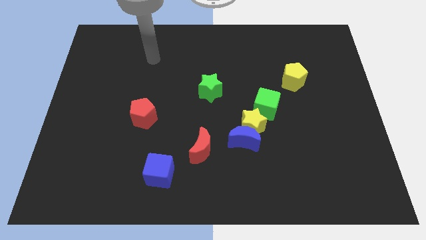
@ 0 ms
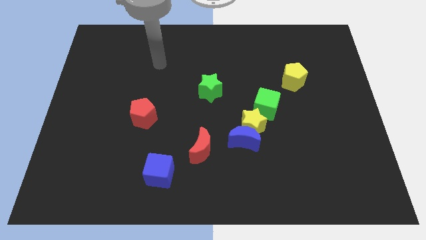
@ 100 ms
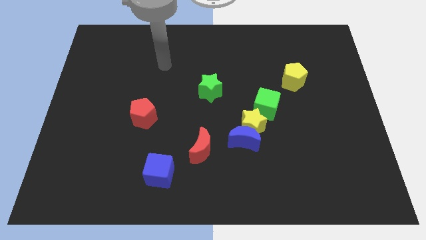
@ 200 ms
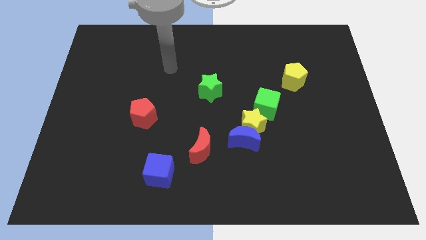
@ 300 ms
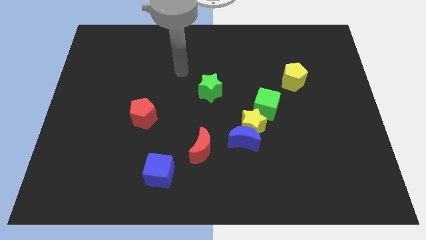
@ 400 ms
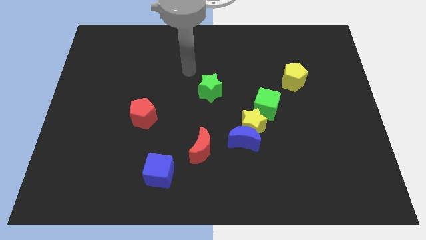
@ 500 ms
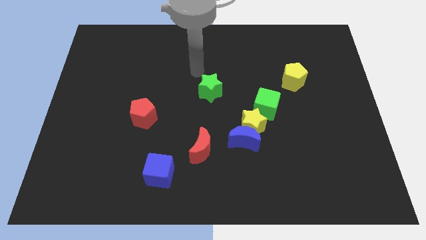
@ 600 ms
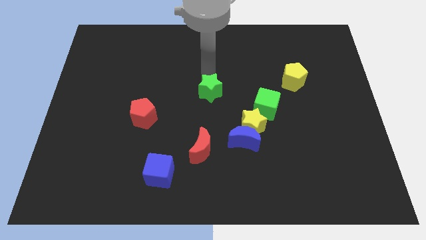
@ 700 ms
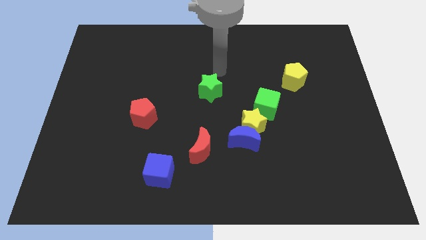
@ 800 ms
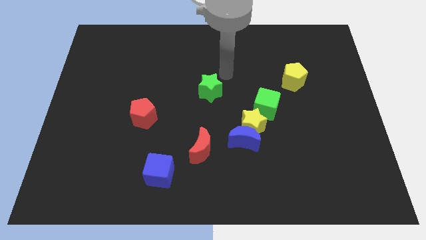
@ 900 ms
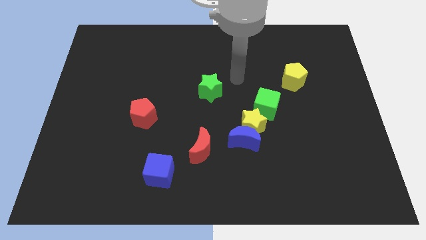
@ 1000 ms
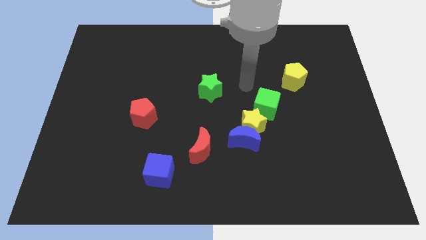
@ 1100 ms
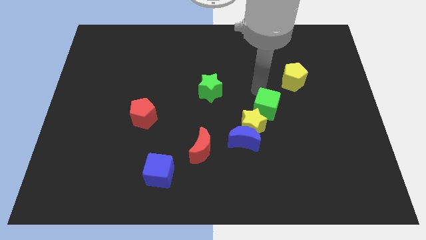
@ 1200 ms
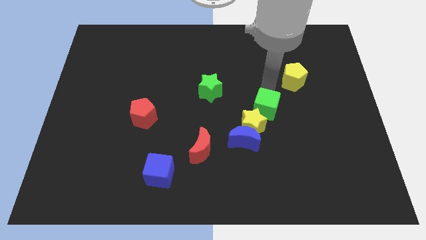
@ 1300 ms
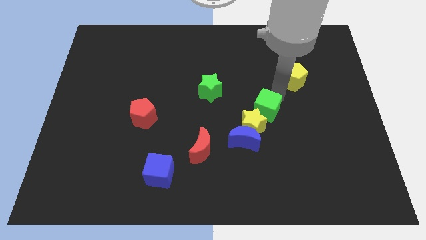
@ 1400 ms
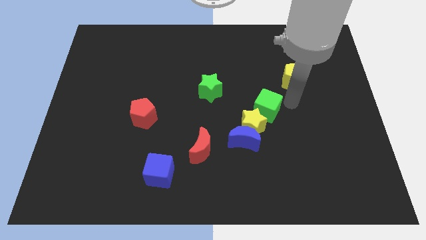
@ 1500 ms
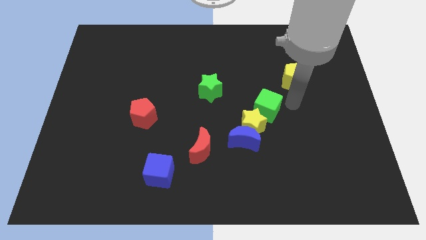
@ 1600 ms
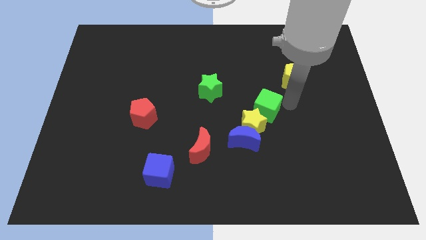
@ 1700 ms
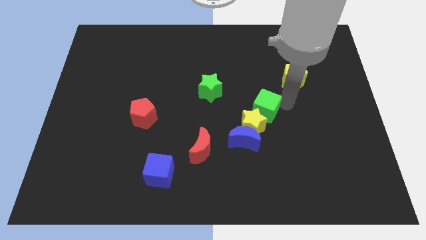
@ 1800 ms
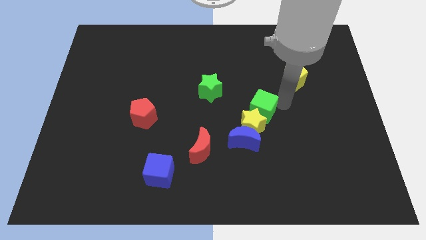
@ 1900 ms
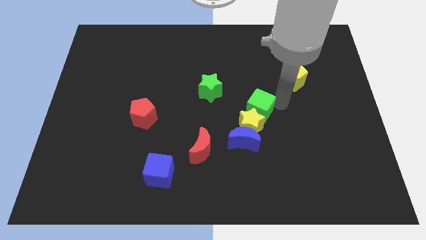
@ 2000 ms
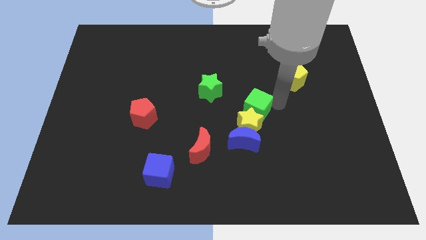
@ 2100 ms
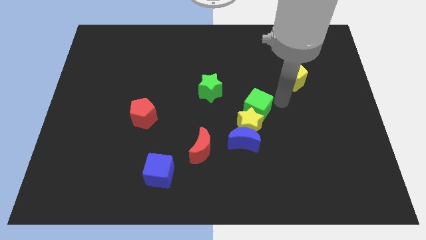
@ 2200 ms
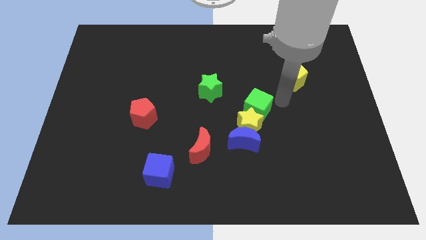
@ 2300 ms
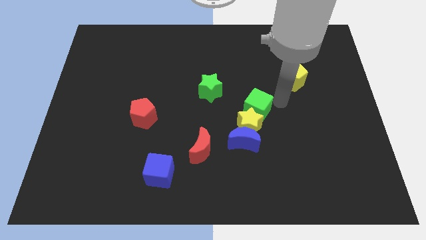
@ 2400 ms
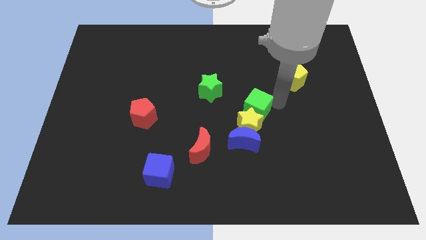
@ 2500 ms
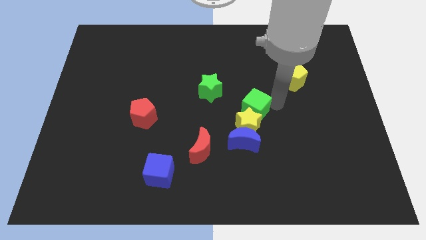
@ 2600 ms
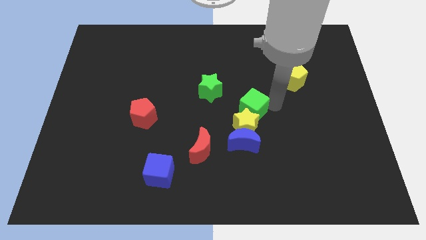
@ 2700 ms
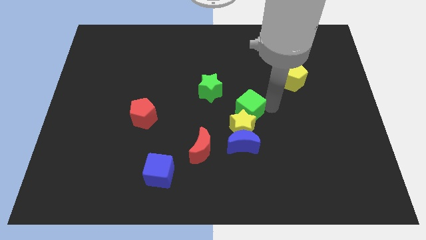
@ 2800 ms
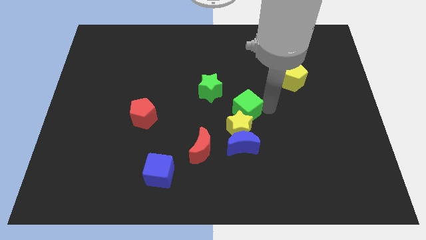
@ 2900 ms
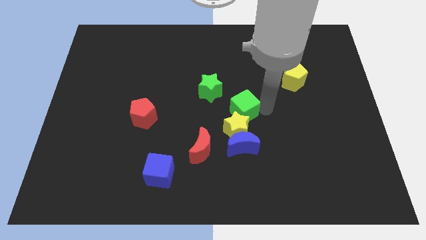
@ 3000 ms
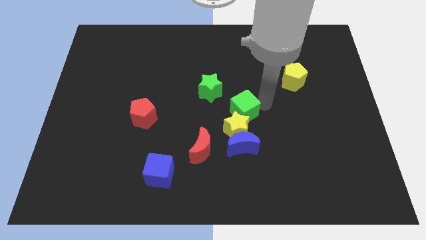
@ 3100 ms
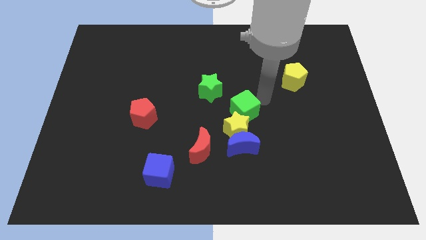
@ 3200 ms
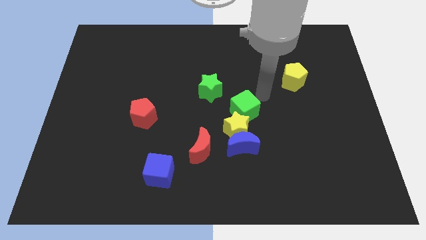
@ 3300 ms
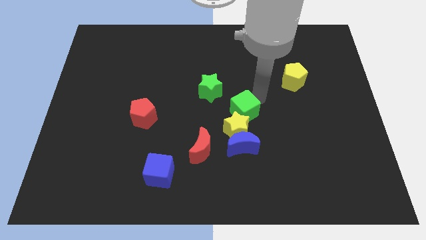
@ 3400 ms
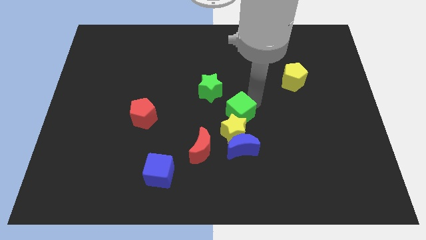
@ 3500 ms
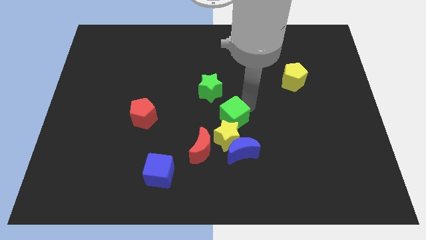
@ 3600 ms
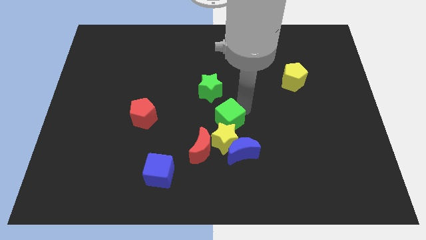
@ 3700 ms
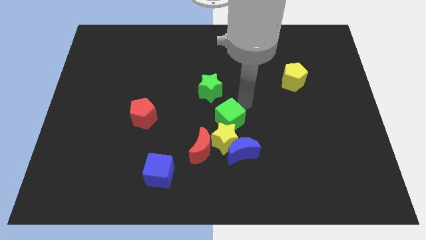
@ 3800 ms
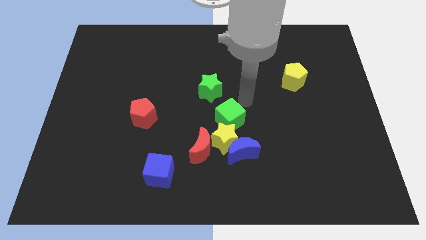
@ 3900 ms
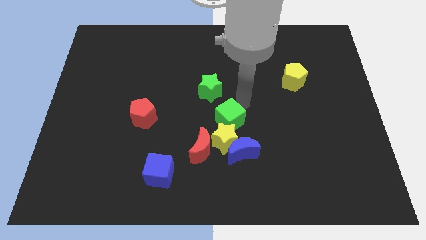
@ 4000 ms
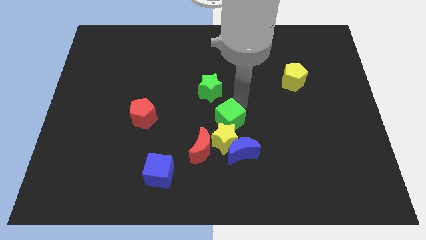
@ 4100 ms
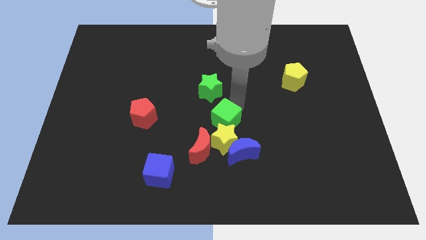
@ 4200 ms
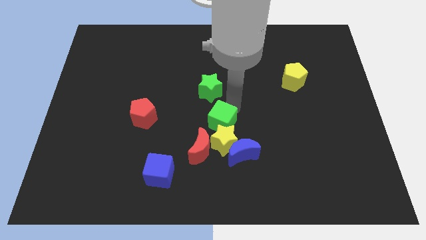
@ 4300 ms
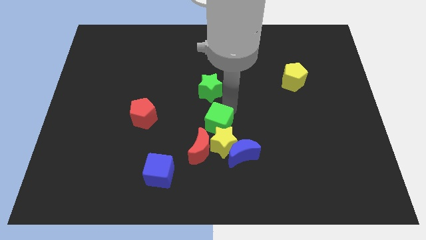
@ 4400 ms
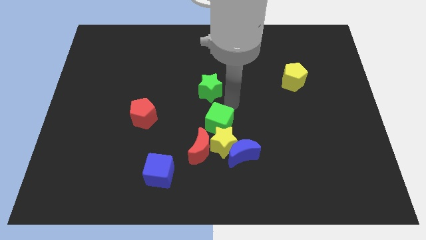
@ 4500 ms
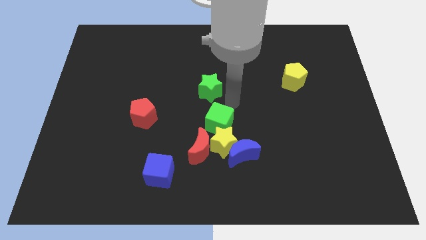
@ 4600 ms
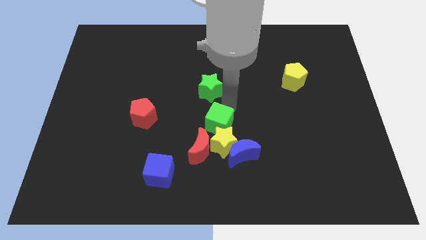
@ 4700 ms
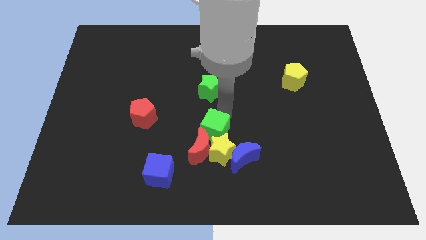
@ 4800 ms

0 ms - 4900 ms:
push the green cube next to the red moon

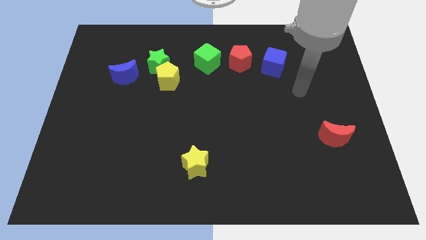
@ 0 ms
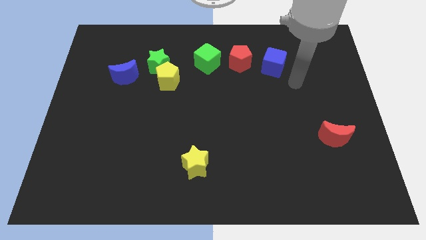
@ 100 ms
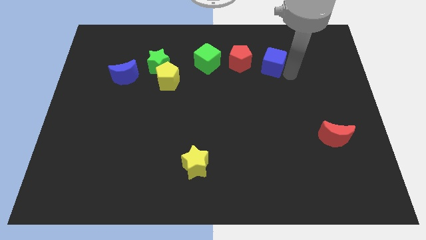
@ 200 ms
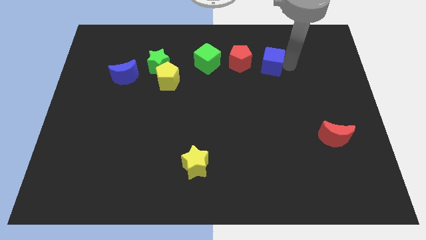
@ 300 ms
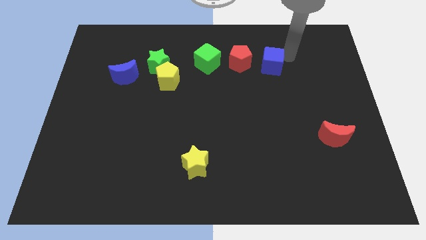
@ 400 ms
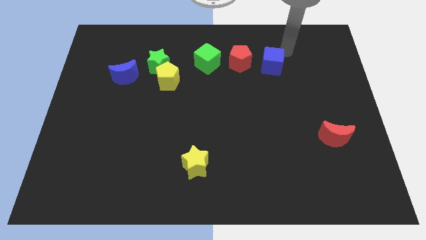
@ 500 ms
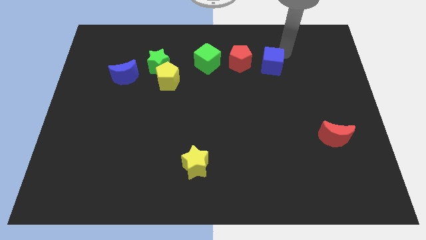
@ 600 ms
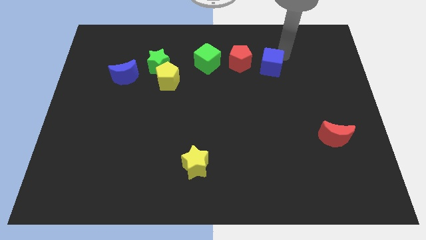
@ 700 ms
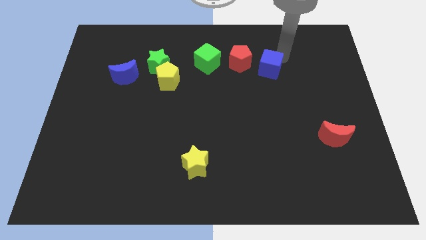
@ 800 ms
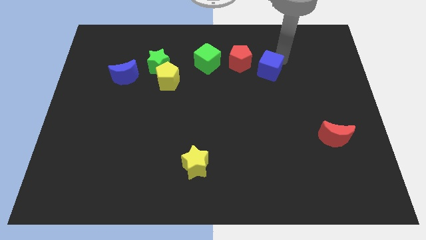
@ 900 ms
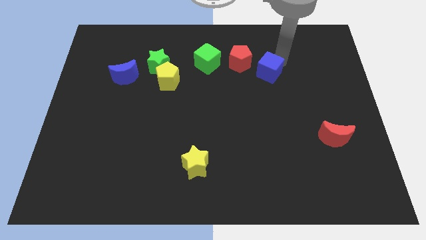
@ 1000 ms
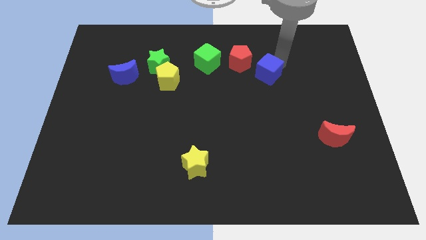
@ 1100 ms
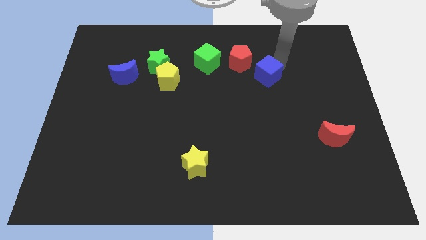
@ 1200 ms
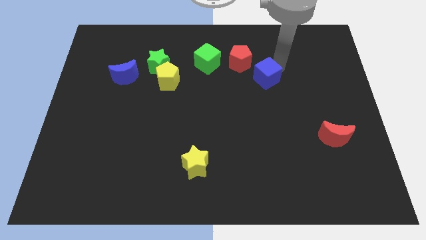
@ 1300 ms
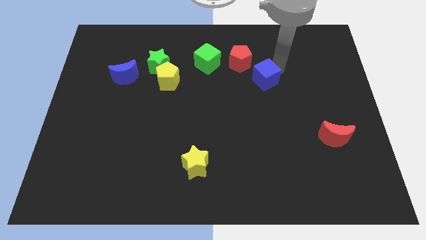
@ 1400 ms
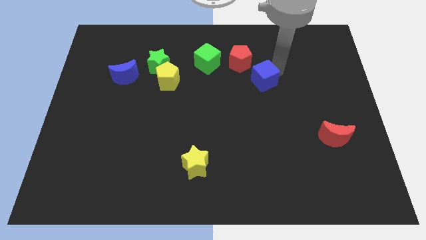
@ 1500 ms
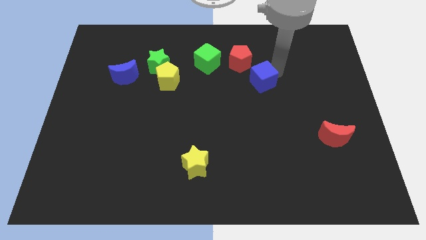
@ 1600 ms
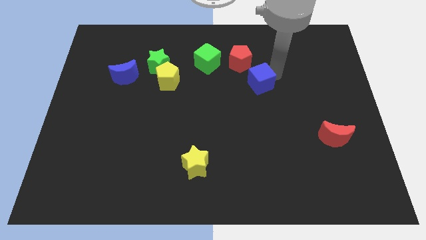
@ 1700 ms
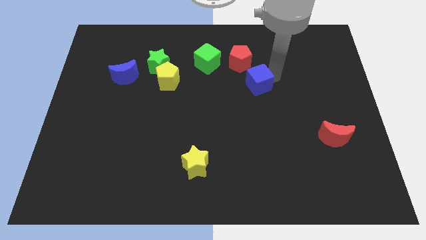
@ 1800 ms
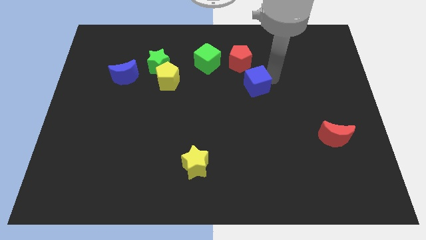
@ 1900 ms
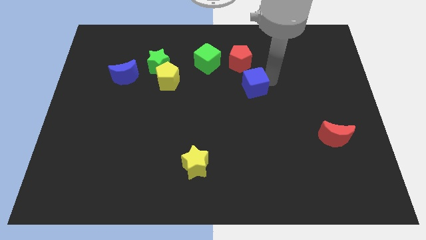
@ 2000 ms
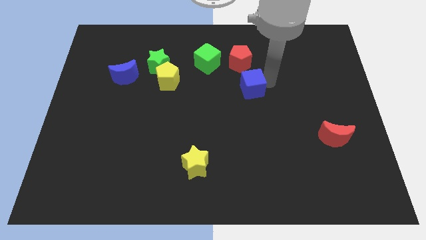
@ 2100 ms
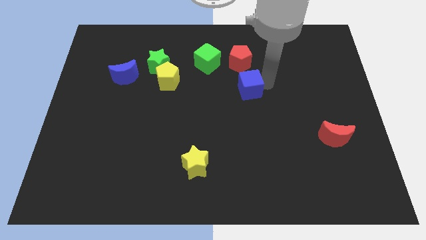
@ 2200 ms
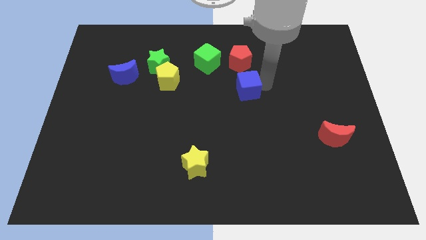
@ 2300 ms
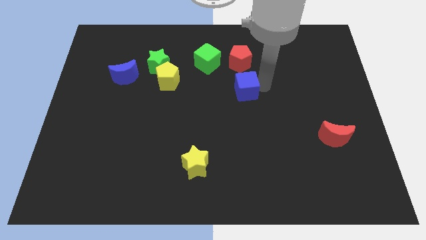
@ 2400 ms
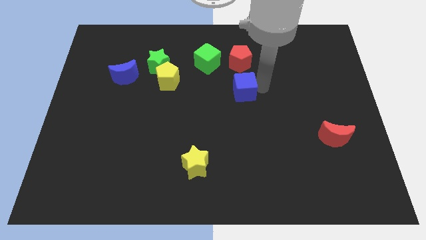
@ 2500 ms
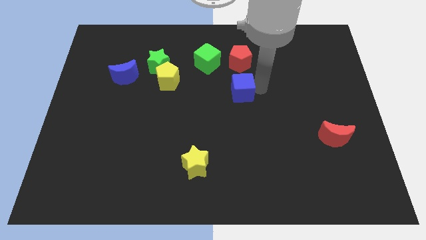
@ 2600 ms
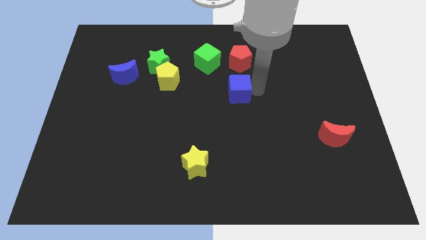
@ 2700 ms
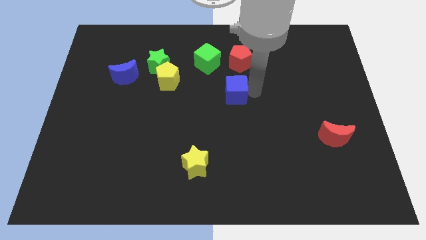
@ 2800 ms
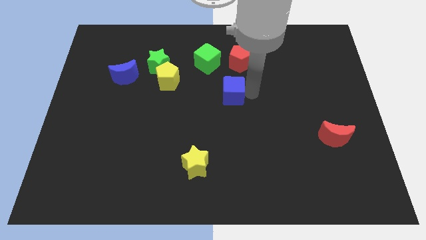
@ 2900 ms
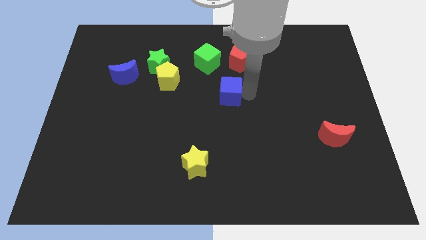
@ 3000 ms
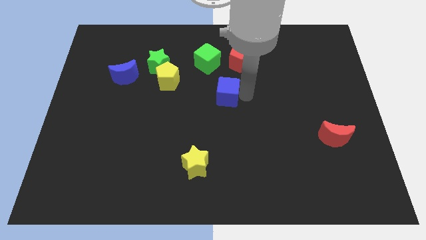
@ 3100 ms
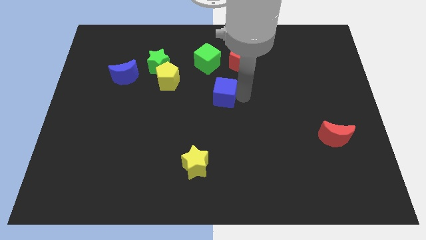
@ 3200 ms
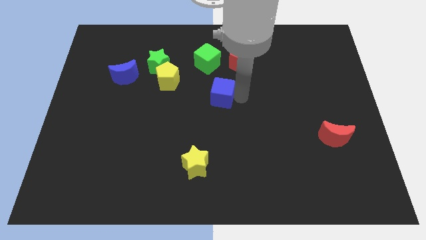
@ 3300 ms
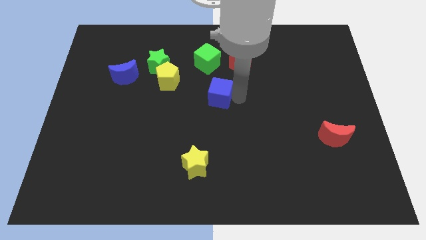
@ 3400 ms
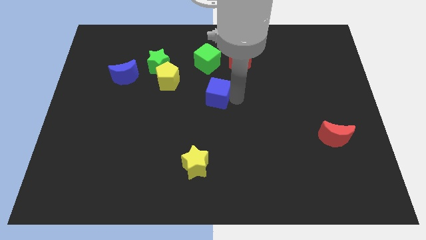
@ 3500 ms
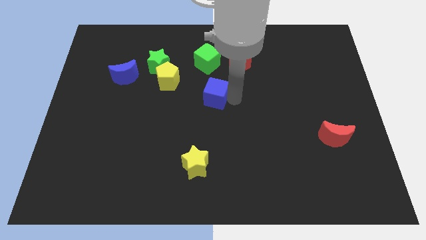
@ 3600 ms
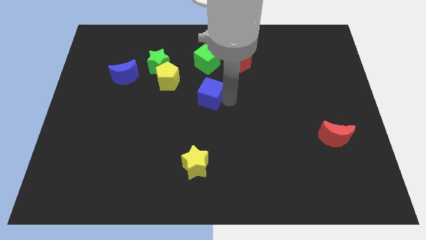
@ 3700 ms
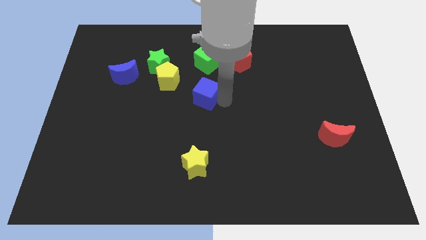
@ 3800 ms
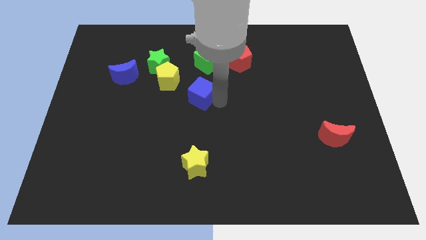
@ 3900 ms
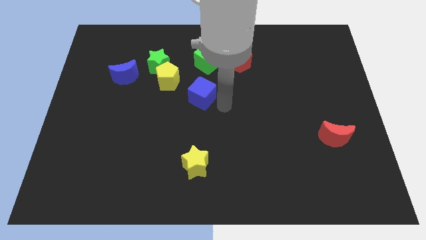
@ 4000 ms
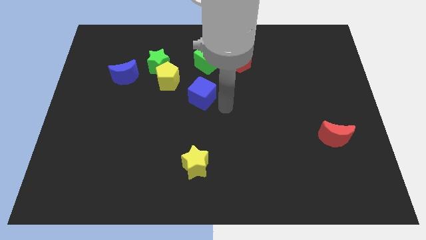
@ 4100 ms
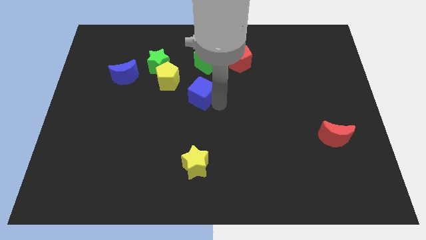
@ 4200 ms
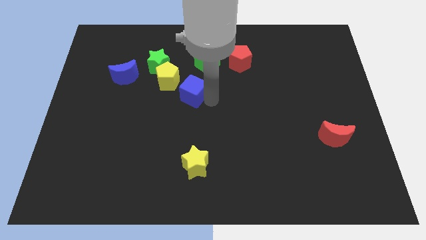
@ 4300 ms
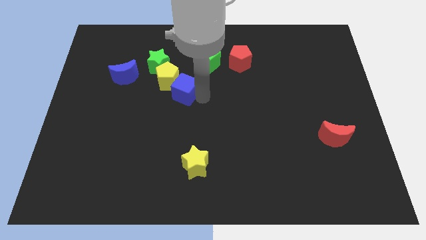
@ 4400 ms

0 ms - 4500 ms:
push the blue cube close to the yellow pentagon
